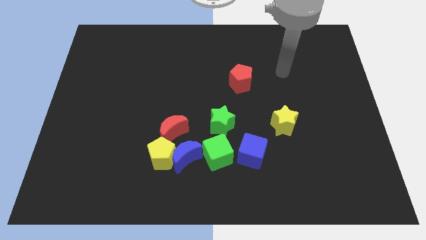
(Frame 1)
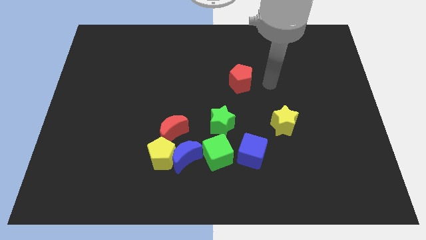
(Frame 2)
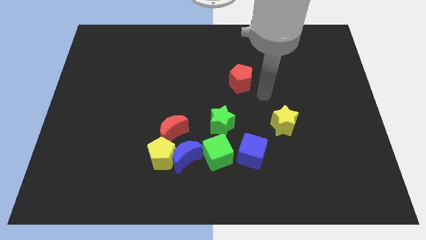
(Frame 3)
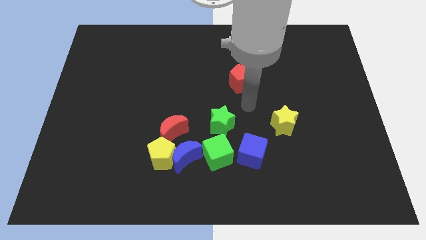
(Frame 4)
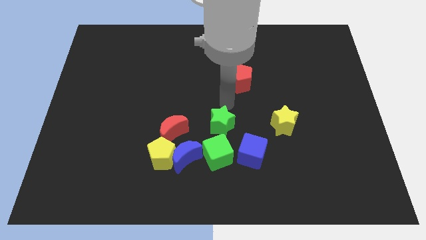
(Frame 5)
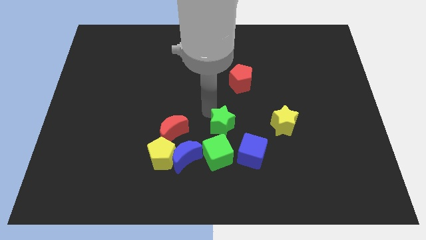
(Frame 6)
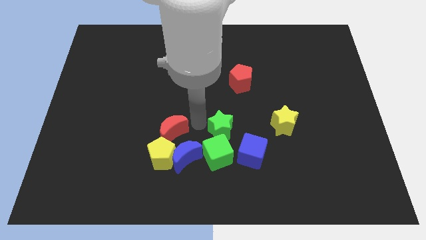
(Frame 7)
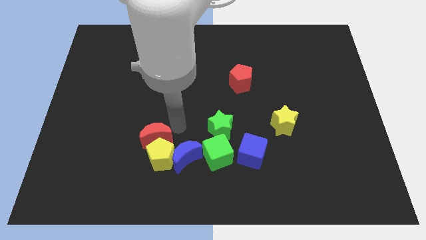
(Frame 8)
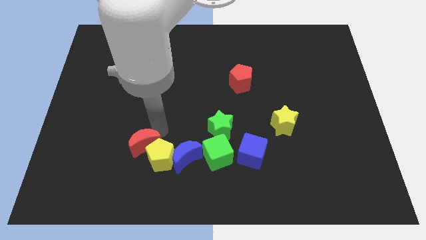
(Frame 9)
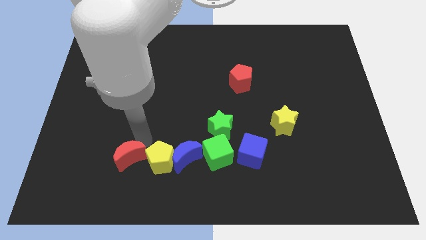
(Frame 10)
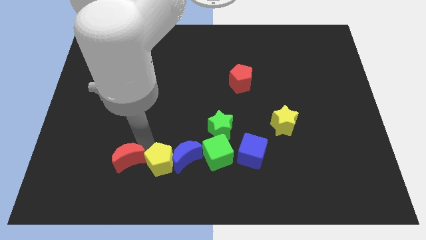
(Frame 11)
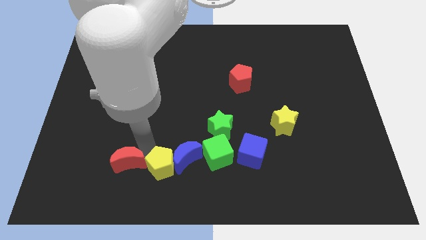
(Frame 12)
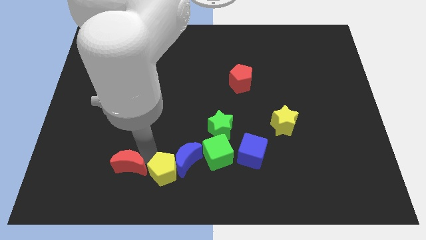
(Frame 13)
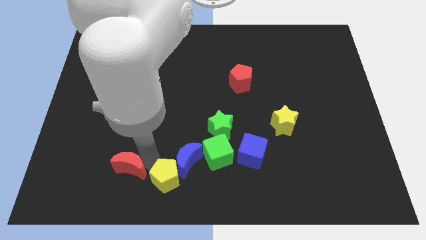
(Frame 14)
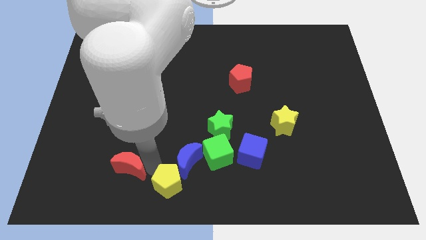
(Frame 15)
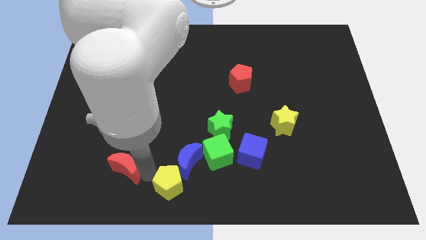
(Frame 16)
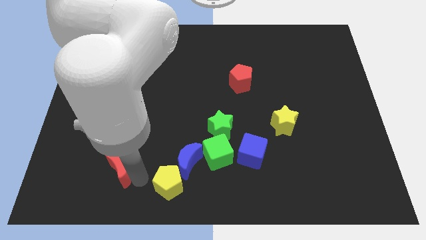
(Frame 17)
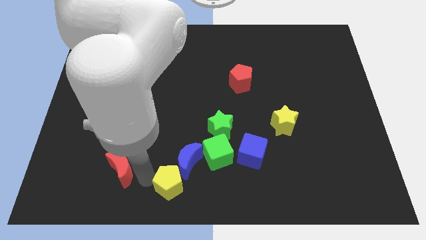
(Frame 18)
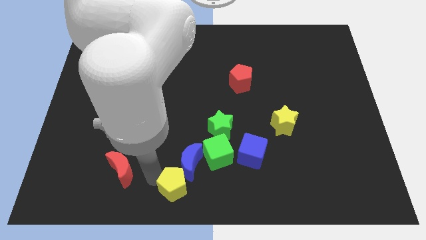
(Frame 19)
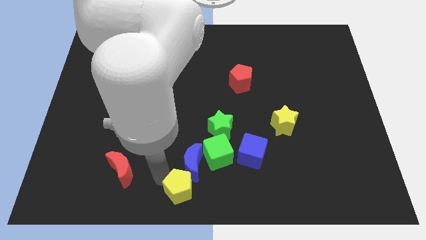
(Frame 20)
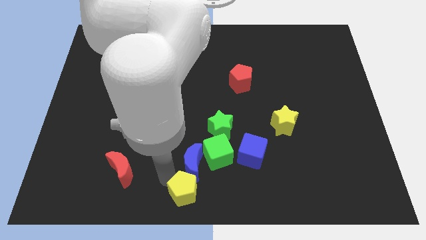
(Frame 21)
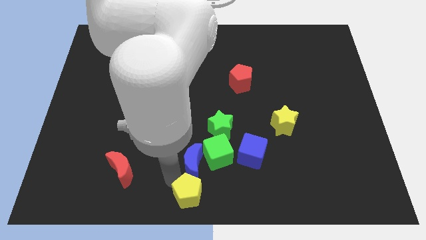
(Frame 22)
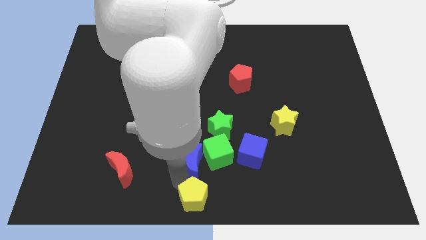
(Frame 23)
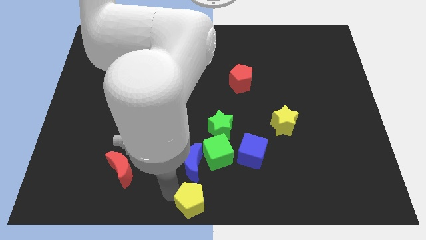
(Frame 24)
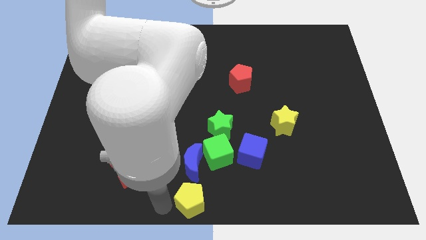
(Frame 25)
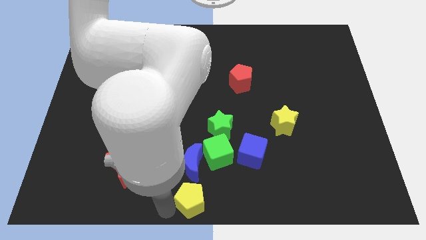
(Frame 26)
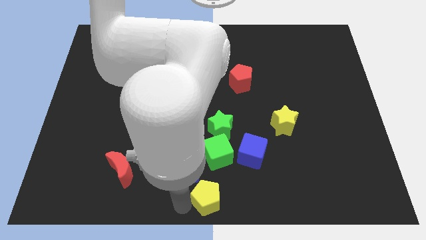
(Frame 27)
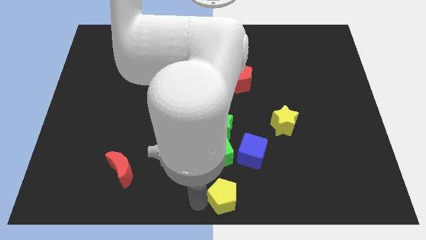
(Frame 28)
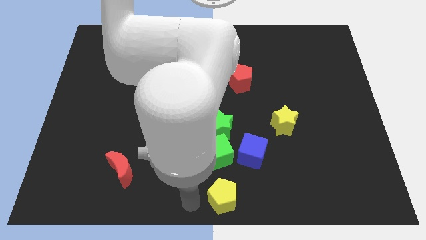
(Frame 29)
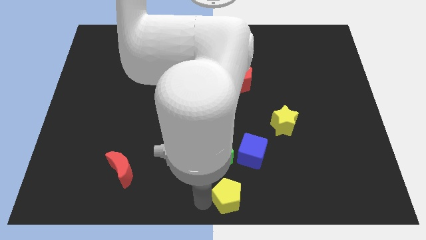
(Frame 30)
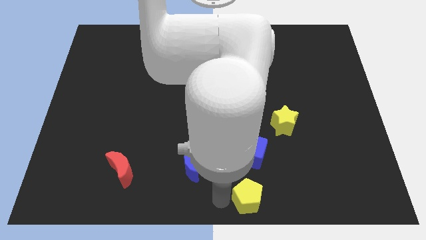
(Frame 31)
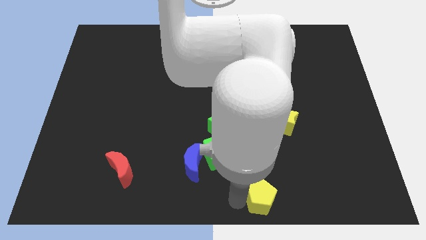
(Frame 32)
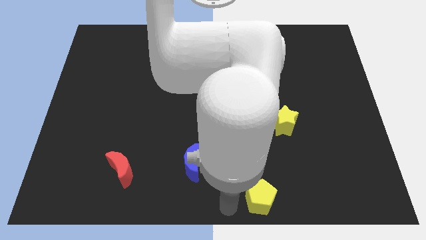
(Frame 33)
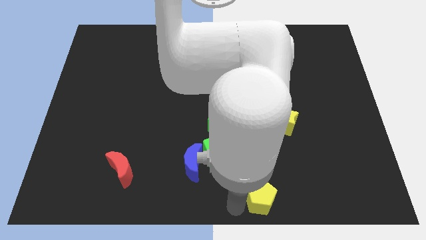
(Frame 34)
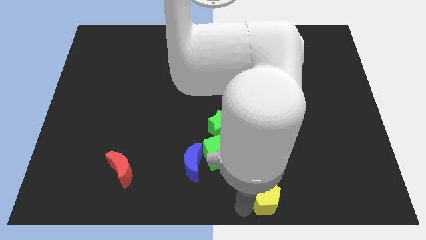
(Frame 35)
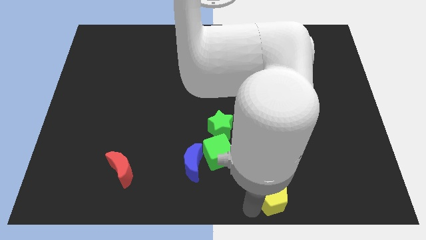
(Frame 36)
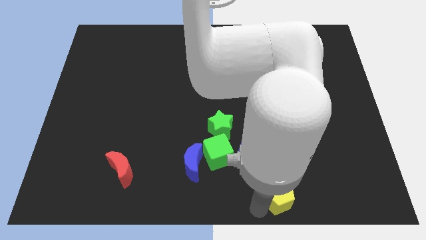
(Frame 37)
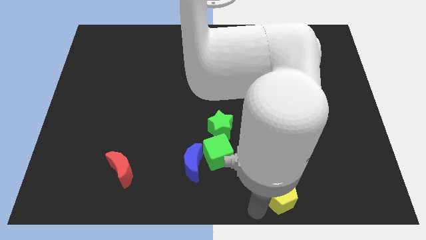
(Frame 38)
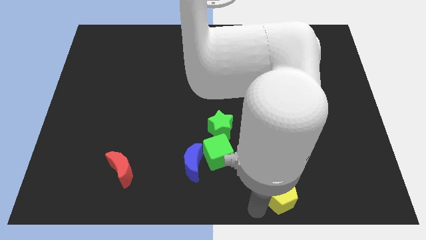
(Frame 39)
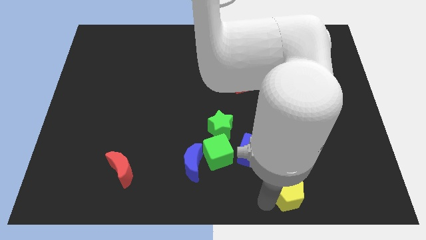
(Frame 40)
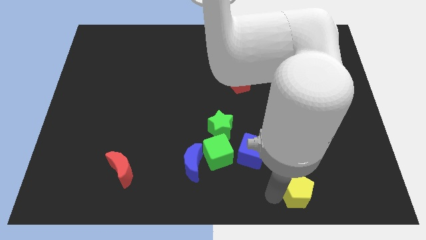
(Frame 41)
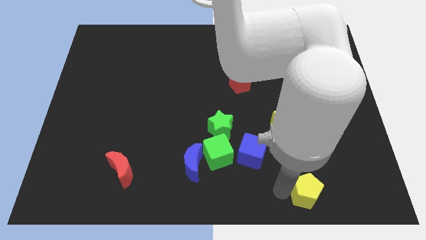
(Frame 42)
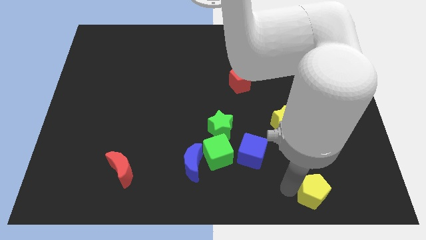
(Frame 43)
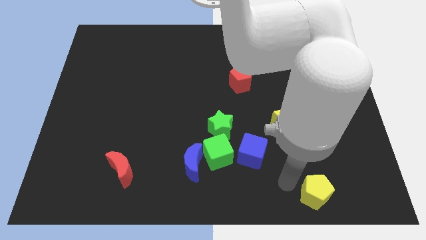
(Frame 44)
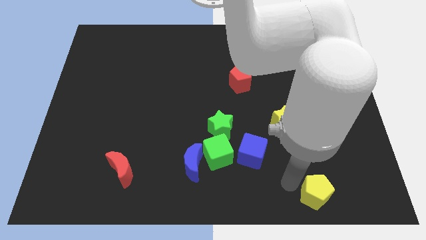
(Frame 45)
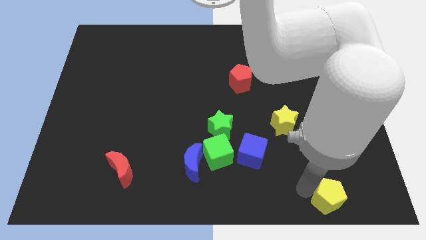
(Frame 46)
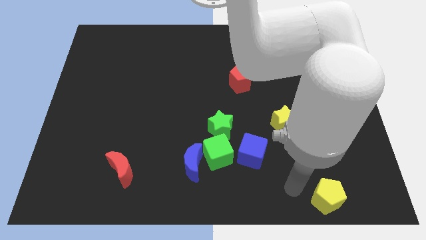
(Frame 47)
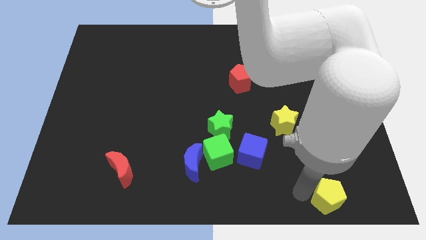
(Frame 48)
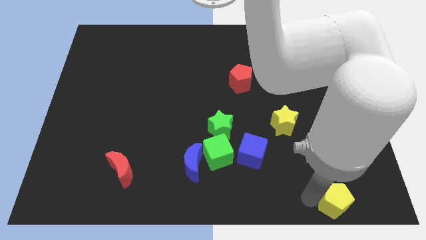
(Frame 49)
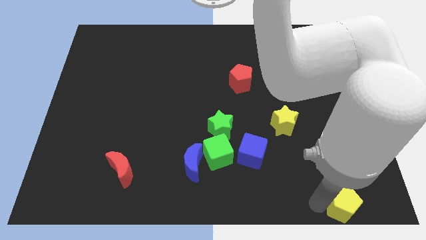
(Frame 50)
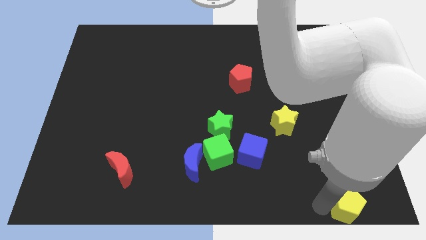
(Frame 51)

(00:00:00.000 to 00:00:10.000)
move the yellow pentagon to the lower right corner

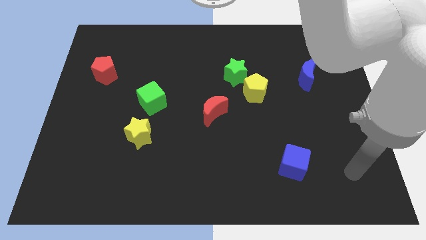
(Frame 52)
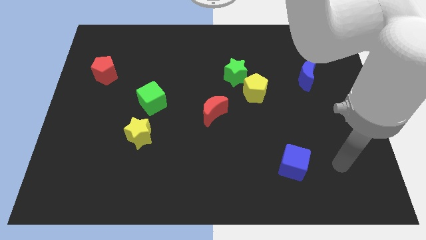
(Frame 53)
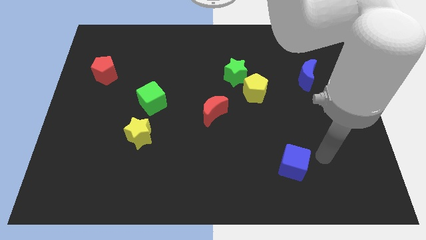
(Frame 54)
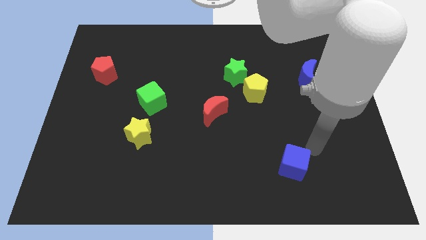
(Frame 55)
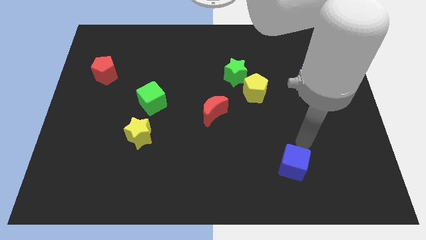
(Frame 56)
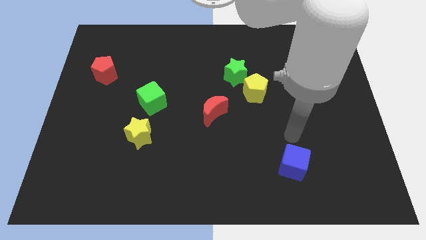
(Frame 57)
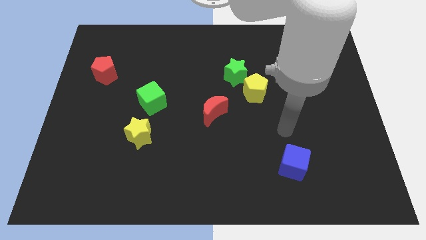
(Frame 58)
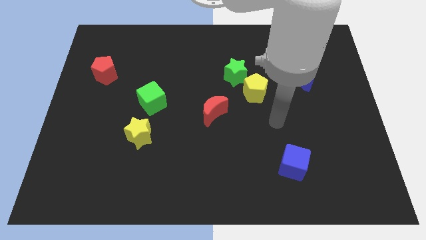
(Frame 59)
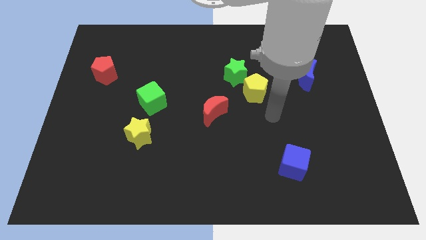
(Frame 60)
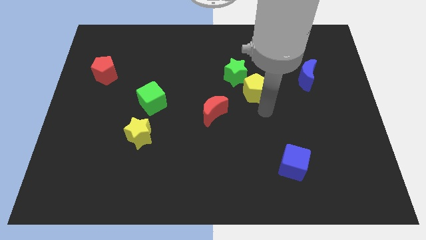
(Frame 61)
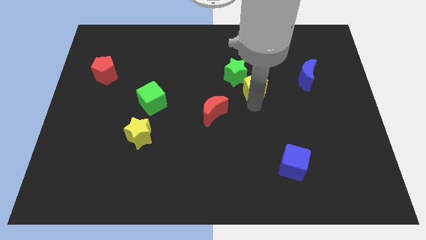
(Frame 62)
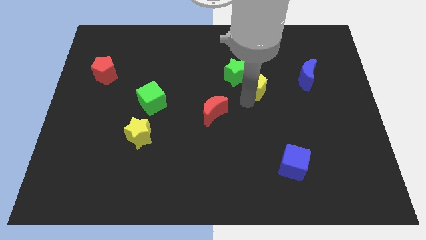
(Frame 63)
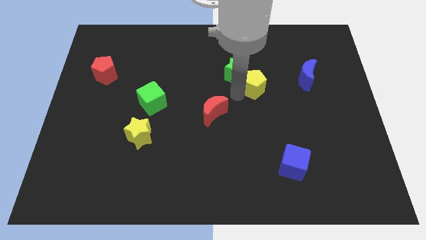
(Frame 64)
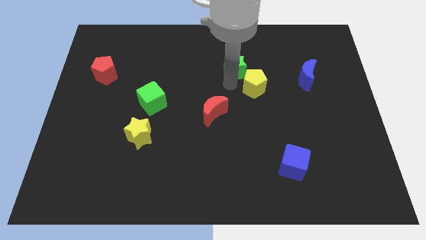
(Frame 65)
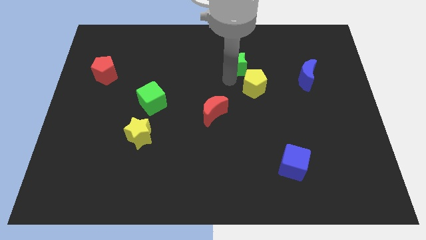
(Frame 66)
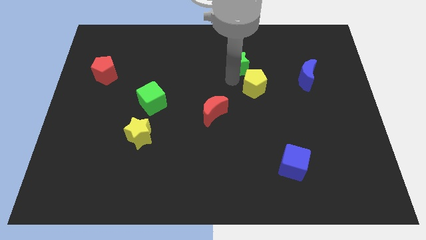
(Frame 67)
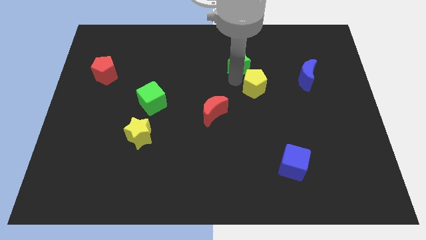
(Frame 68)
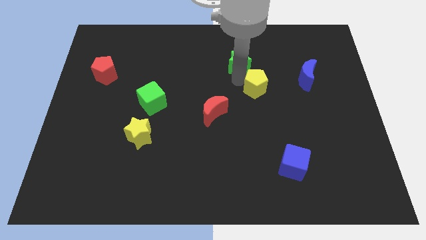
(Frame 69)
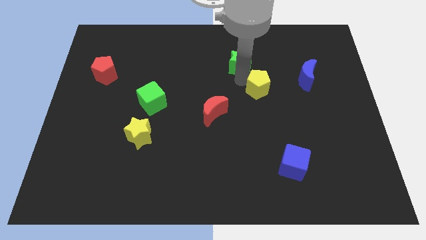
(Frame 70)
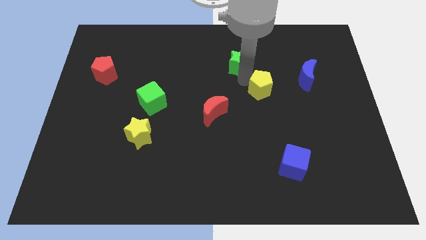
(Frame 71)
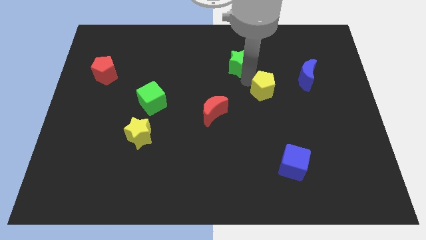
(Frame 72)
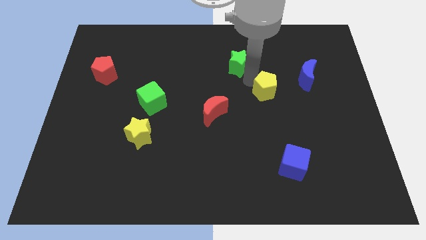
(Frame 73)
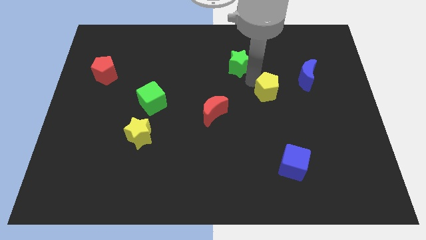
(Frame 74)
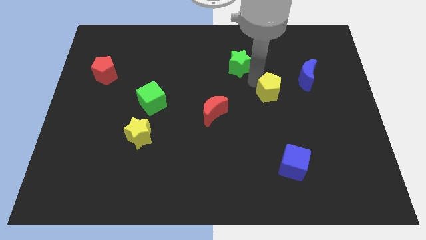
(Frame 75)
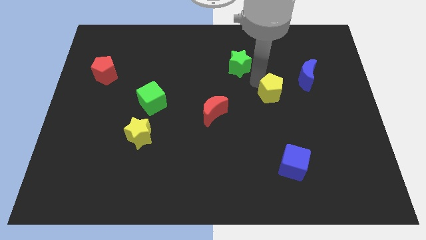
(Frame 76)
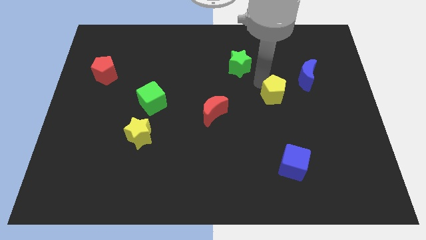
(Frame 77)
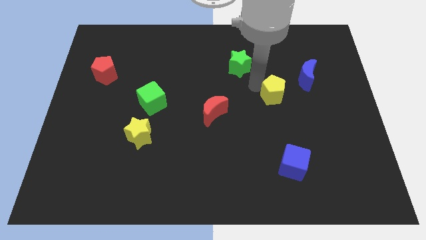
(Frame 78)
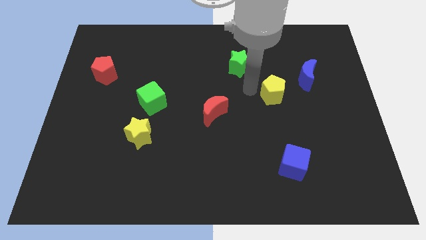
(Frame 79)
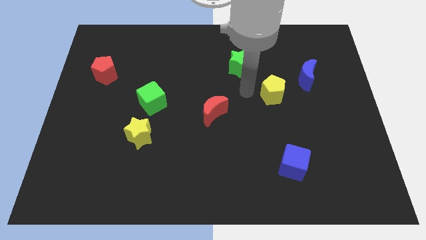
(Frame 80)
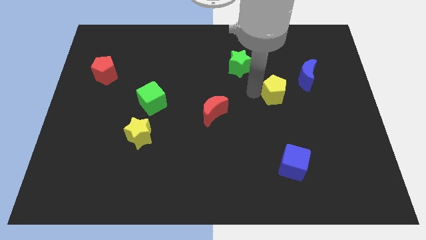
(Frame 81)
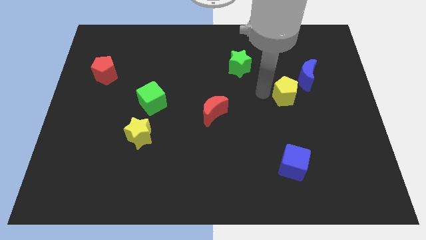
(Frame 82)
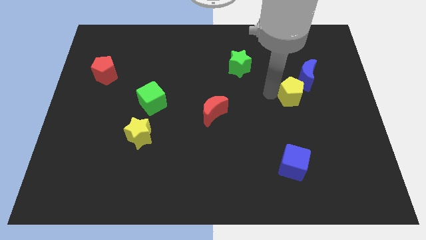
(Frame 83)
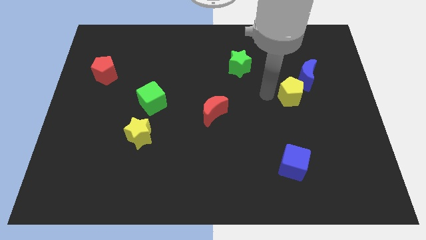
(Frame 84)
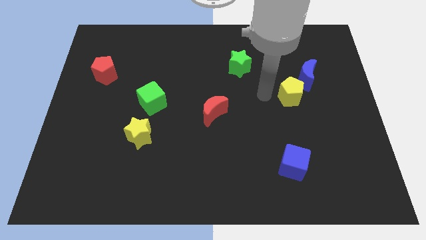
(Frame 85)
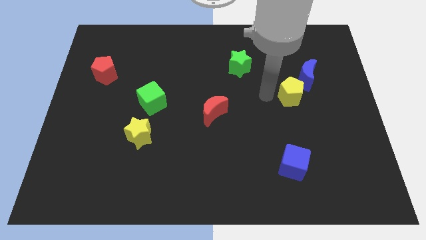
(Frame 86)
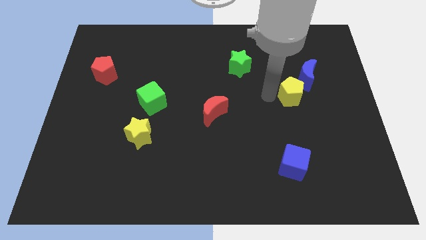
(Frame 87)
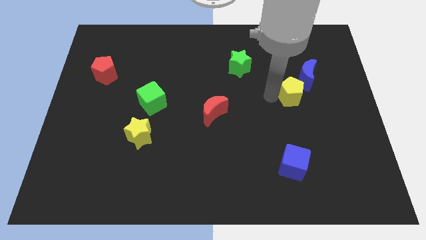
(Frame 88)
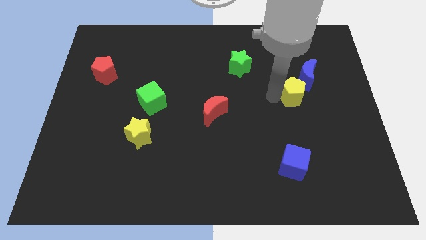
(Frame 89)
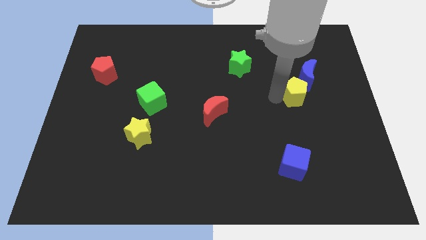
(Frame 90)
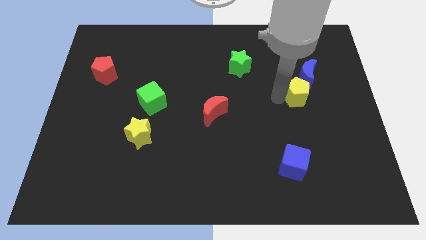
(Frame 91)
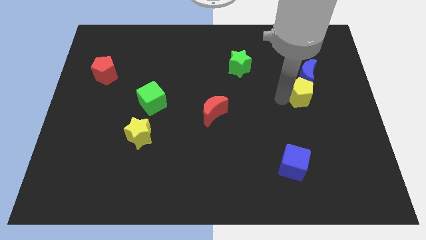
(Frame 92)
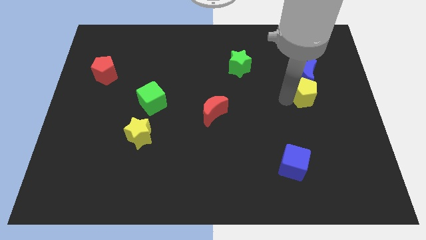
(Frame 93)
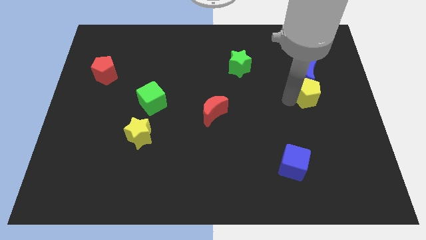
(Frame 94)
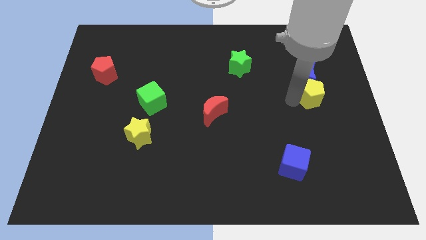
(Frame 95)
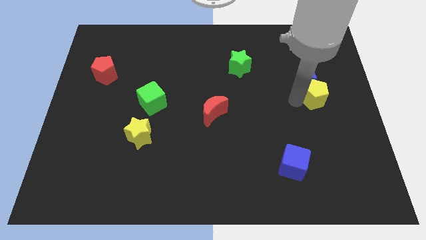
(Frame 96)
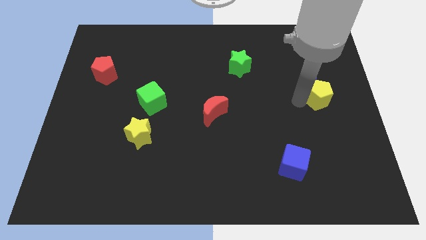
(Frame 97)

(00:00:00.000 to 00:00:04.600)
push the yellow pentagon to the right side of the board
